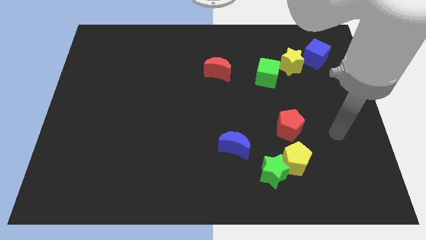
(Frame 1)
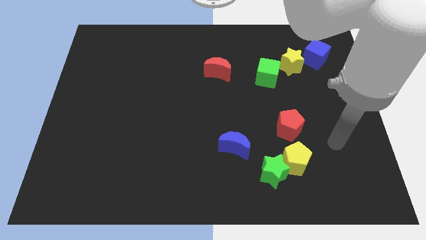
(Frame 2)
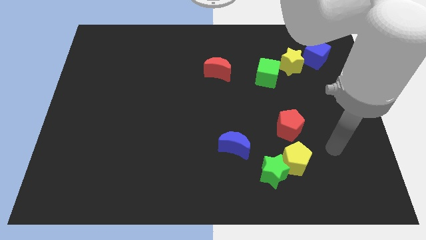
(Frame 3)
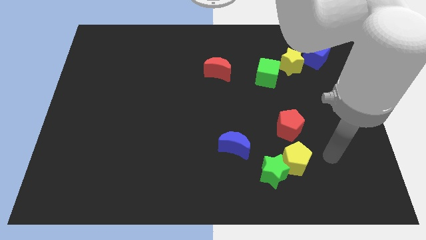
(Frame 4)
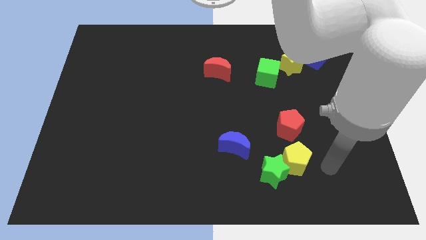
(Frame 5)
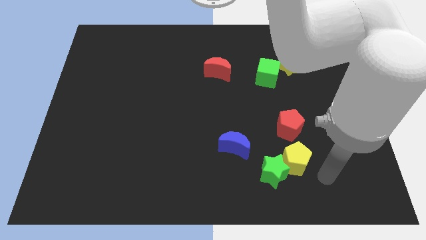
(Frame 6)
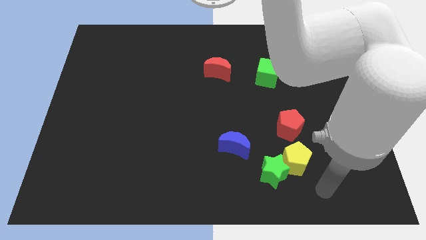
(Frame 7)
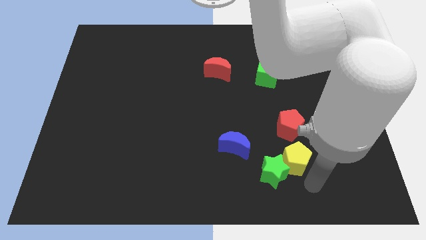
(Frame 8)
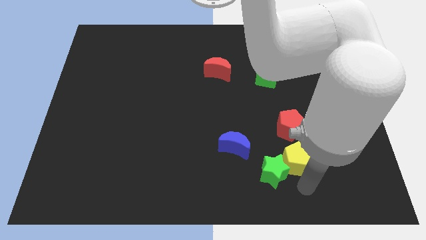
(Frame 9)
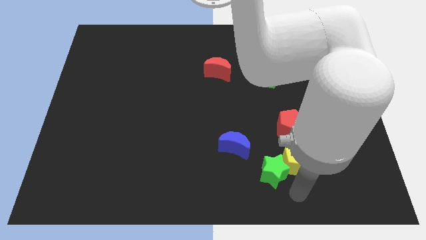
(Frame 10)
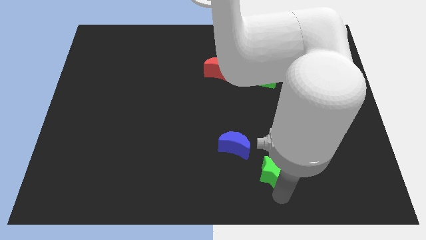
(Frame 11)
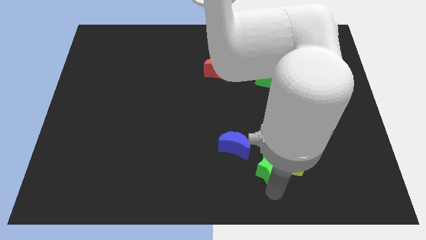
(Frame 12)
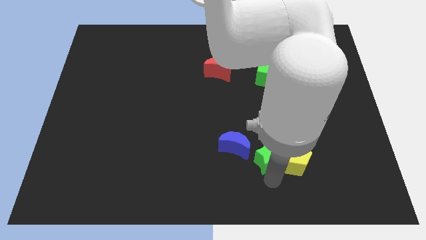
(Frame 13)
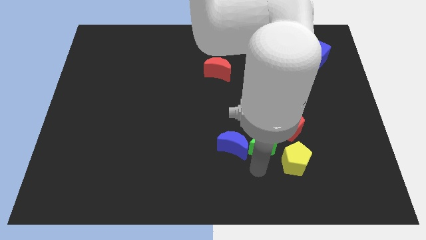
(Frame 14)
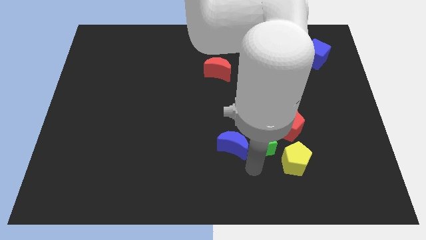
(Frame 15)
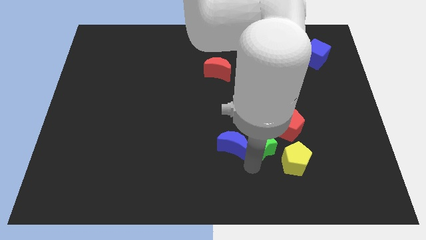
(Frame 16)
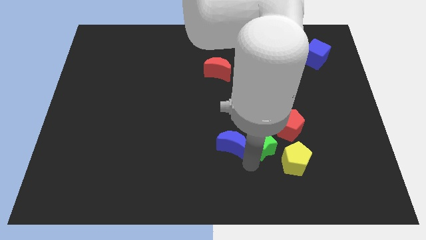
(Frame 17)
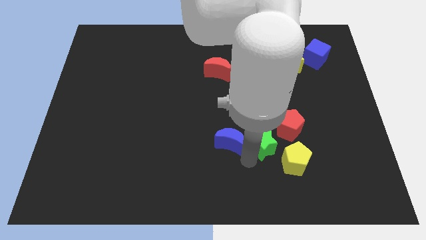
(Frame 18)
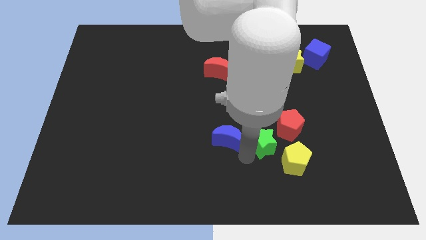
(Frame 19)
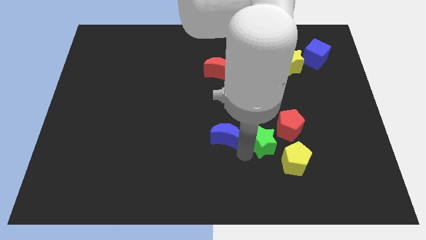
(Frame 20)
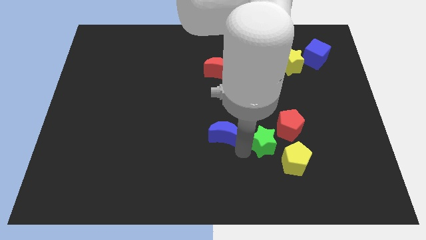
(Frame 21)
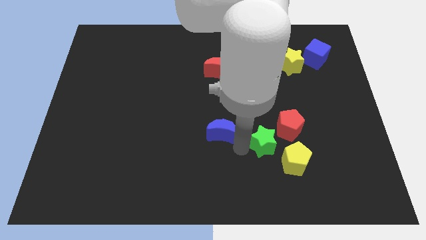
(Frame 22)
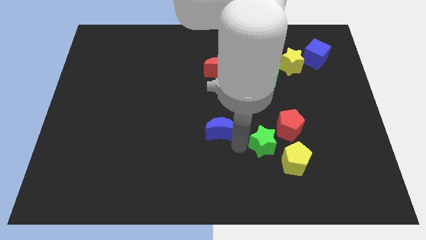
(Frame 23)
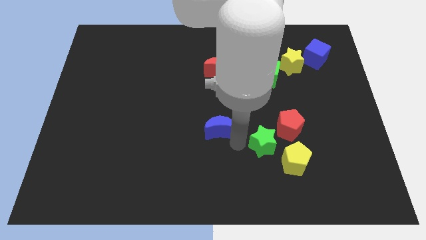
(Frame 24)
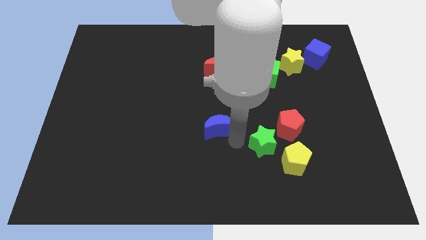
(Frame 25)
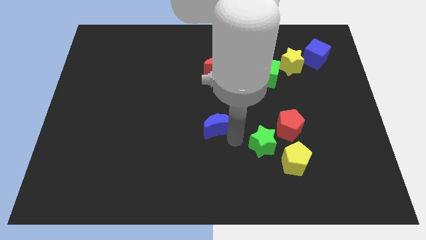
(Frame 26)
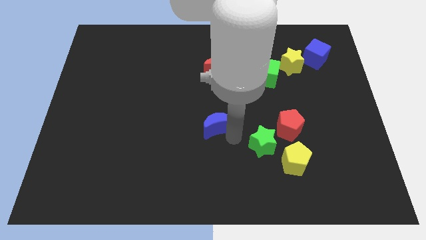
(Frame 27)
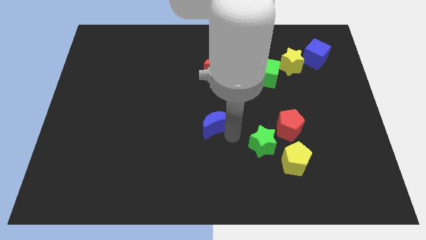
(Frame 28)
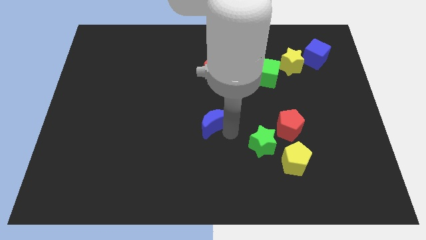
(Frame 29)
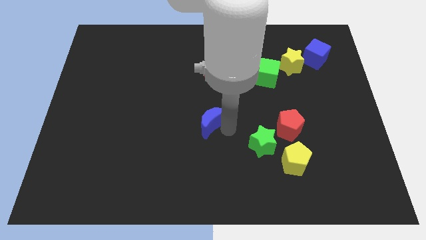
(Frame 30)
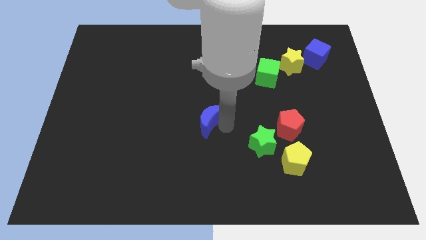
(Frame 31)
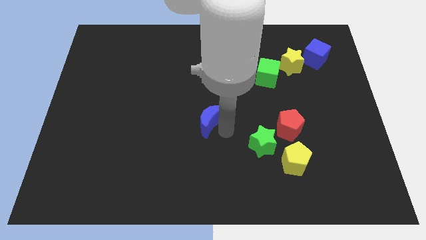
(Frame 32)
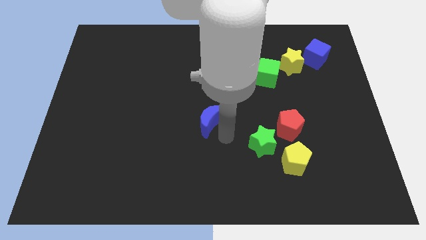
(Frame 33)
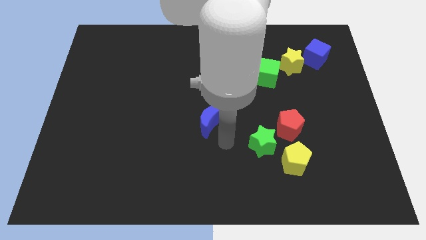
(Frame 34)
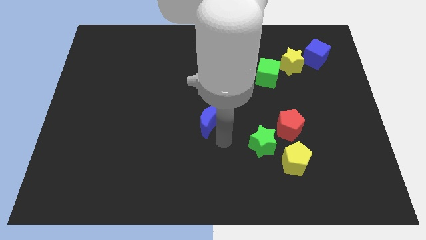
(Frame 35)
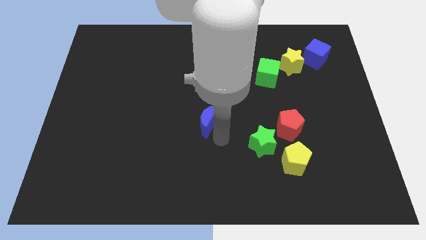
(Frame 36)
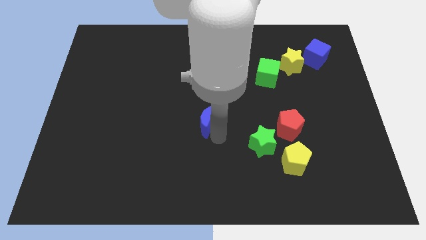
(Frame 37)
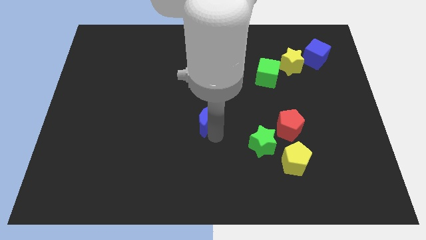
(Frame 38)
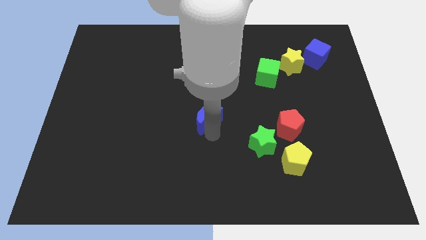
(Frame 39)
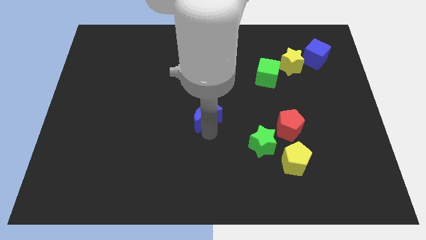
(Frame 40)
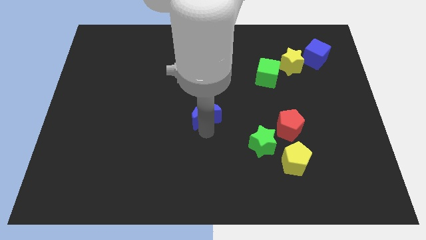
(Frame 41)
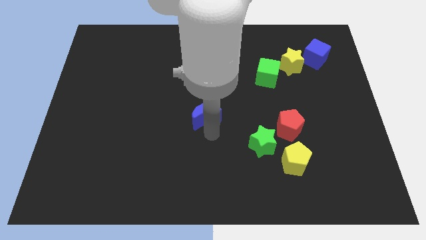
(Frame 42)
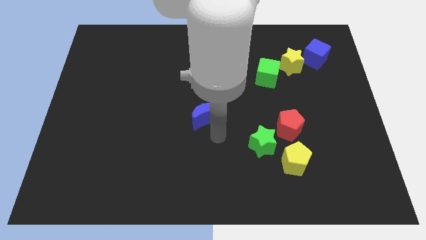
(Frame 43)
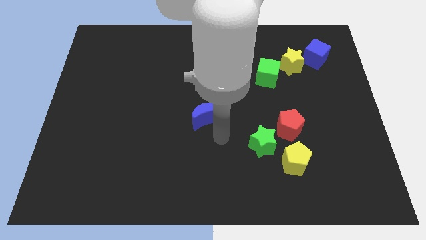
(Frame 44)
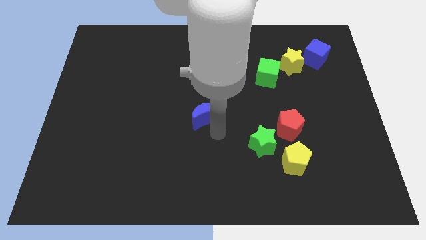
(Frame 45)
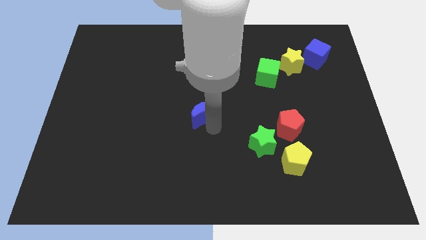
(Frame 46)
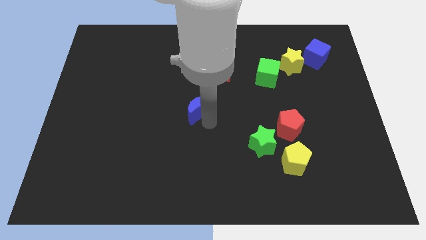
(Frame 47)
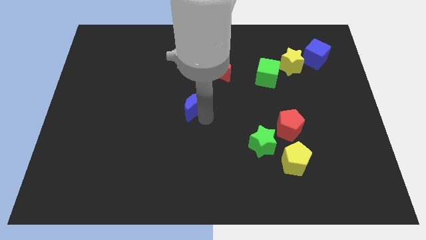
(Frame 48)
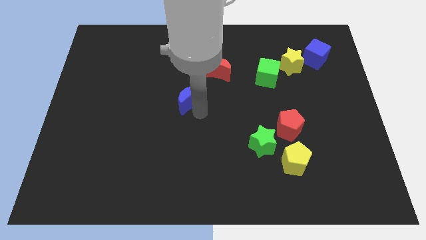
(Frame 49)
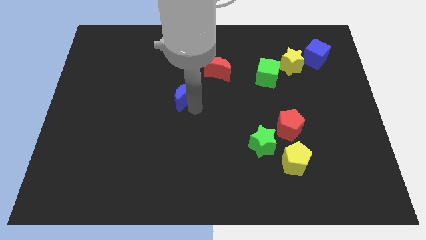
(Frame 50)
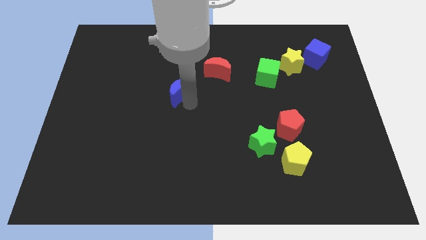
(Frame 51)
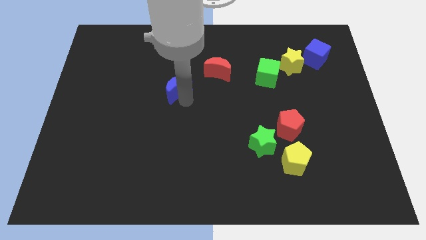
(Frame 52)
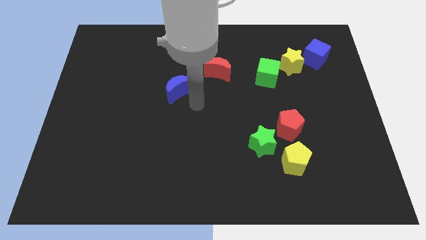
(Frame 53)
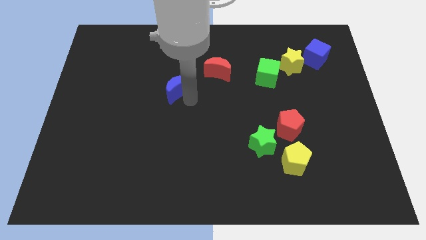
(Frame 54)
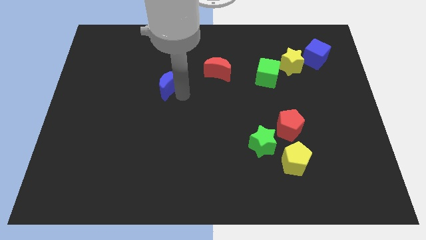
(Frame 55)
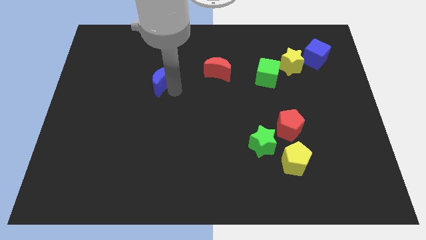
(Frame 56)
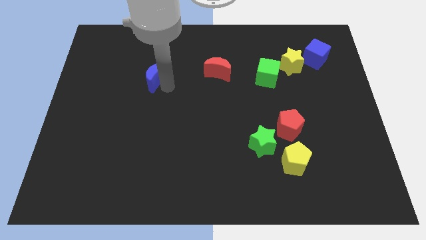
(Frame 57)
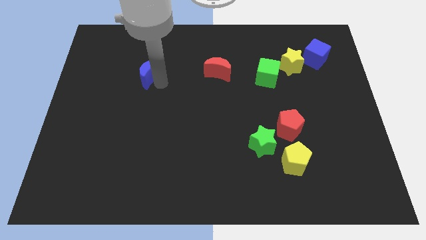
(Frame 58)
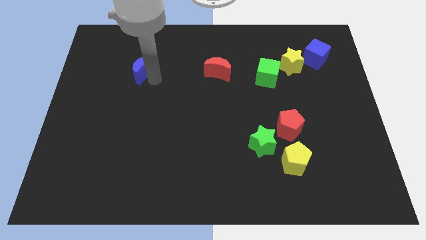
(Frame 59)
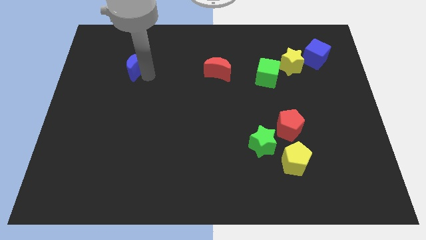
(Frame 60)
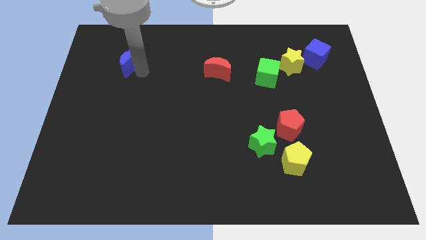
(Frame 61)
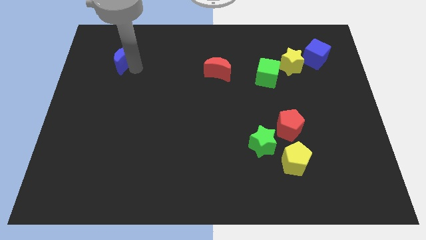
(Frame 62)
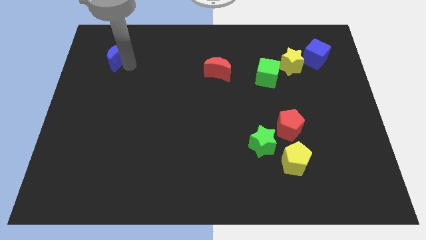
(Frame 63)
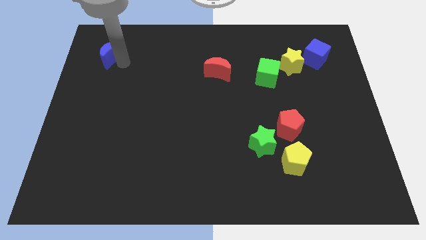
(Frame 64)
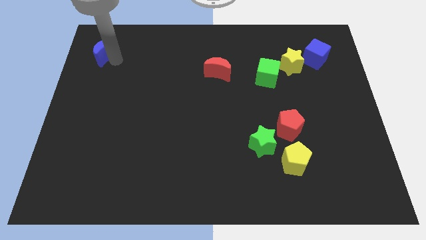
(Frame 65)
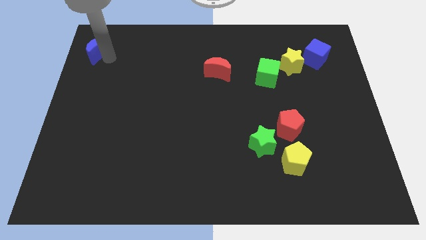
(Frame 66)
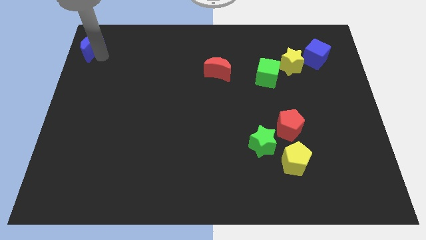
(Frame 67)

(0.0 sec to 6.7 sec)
move the blue moon to the upper left corner
